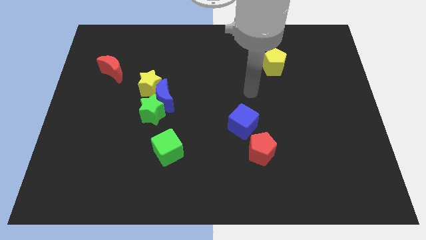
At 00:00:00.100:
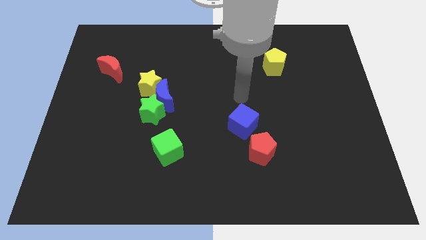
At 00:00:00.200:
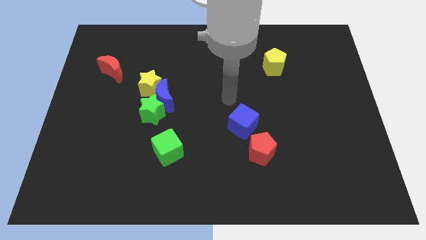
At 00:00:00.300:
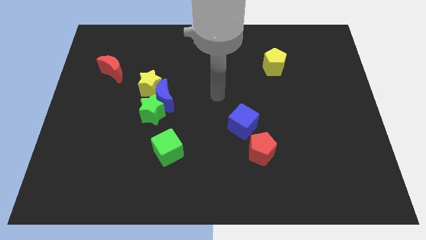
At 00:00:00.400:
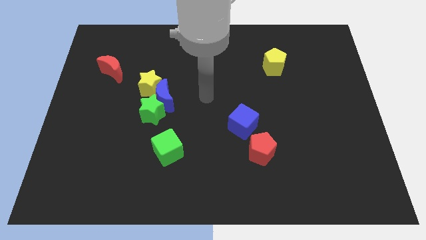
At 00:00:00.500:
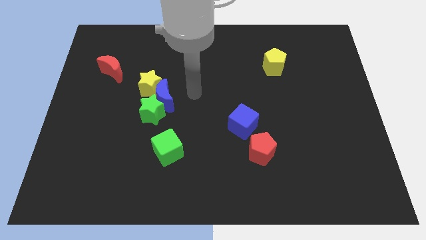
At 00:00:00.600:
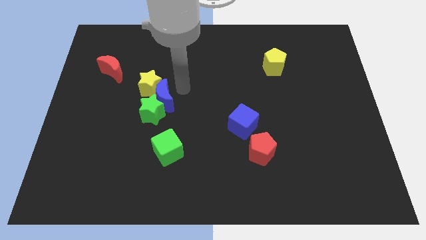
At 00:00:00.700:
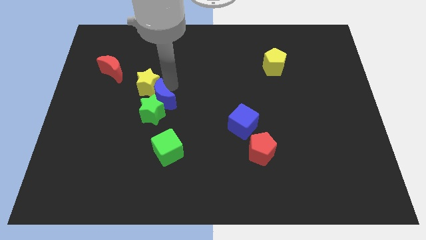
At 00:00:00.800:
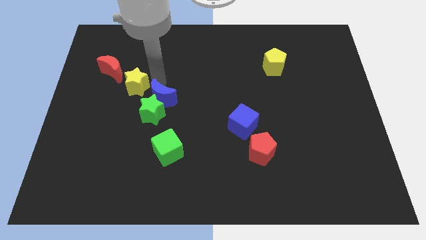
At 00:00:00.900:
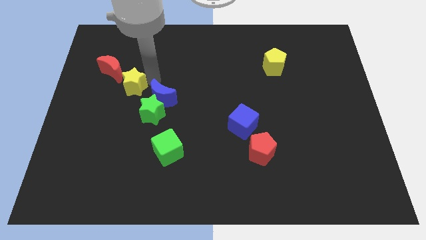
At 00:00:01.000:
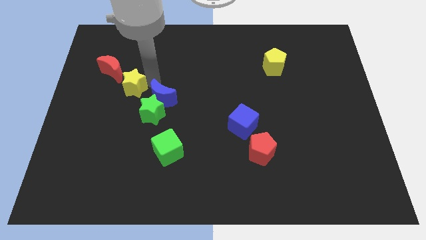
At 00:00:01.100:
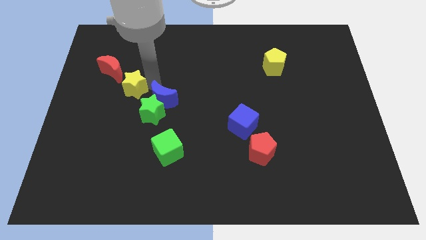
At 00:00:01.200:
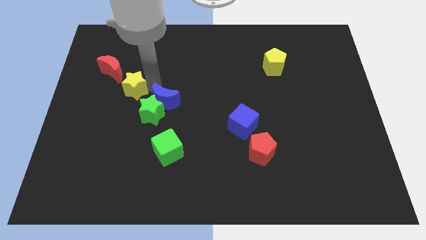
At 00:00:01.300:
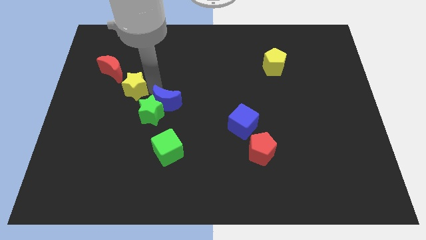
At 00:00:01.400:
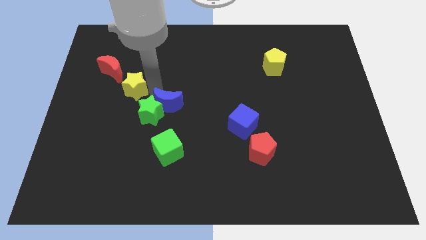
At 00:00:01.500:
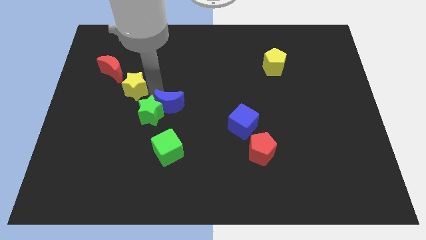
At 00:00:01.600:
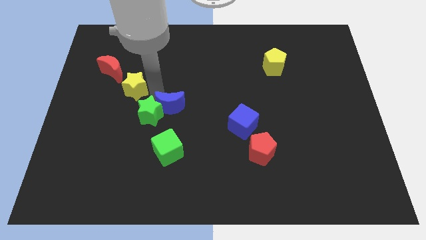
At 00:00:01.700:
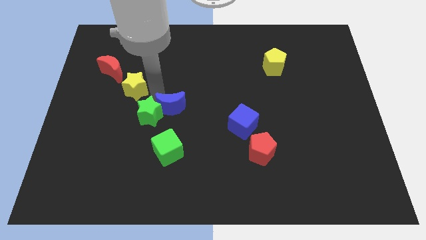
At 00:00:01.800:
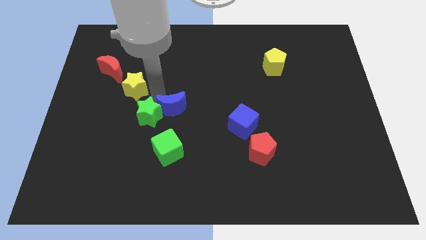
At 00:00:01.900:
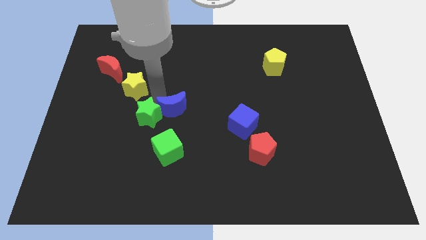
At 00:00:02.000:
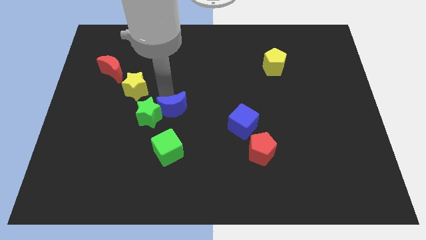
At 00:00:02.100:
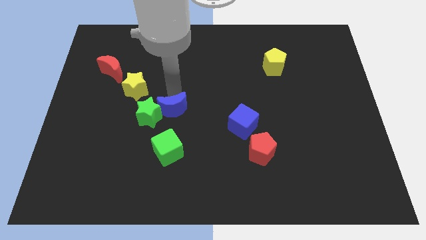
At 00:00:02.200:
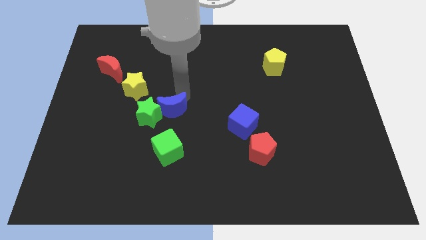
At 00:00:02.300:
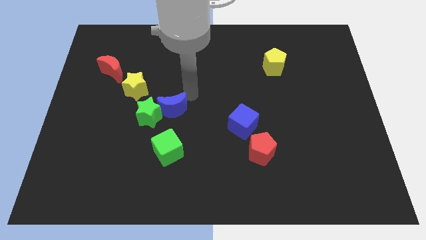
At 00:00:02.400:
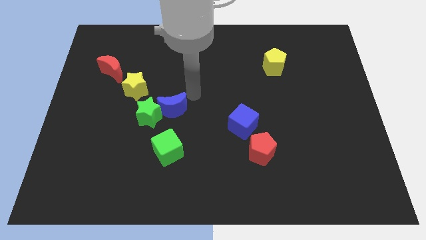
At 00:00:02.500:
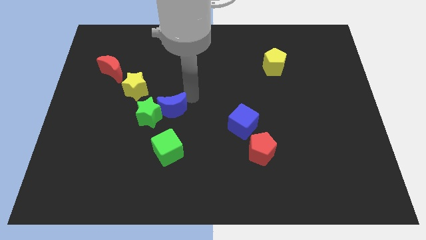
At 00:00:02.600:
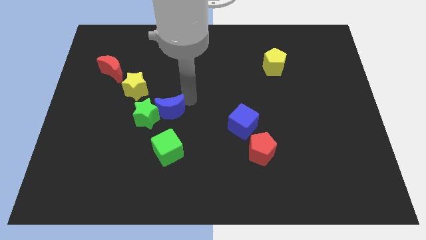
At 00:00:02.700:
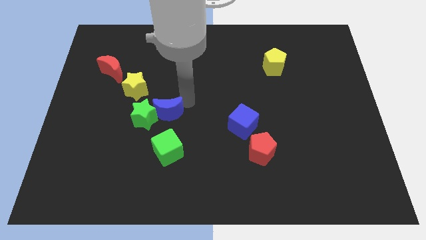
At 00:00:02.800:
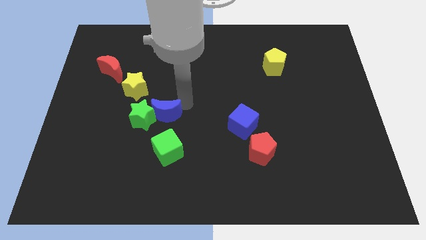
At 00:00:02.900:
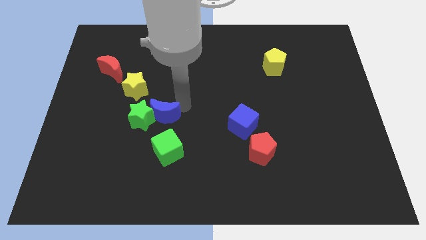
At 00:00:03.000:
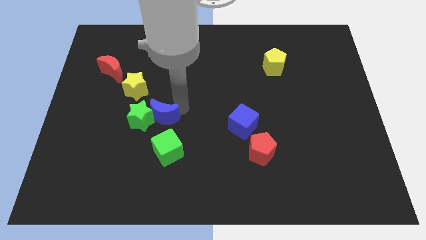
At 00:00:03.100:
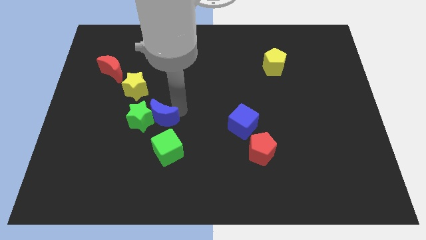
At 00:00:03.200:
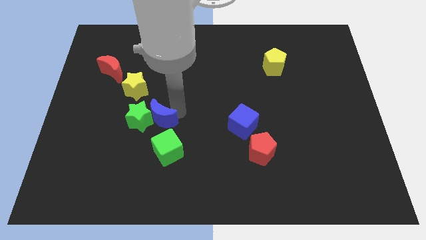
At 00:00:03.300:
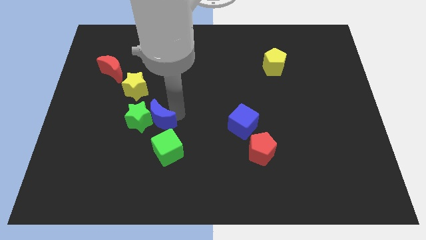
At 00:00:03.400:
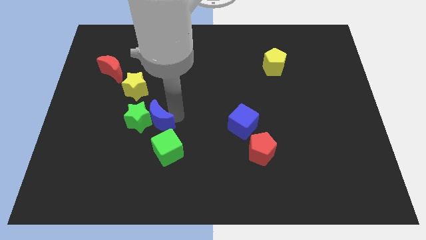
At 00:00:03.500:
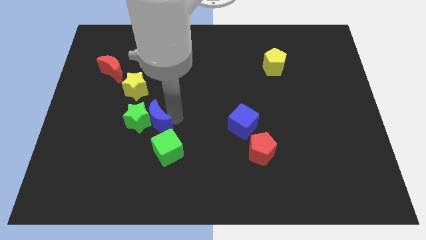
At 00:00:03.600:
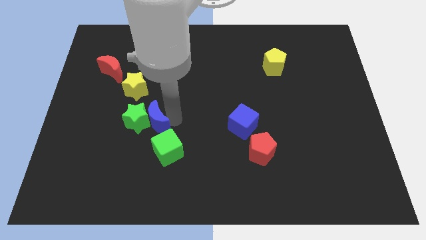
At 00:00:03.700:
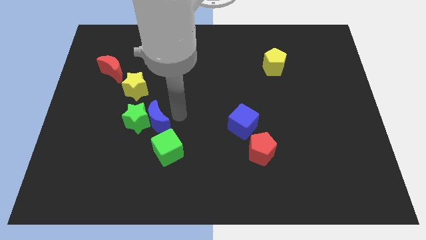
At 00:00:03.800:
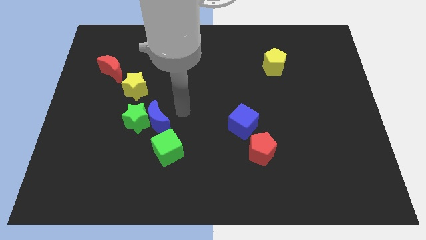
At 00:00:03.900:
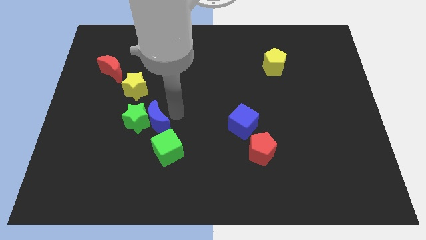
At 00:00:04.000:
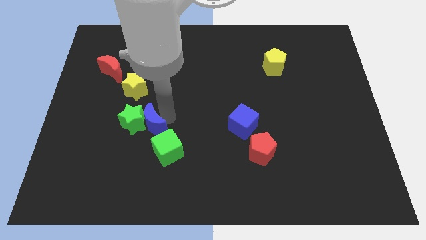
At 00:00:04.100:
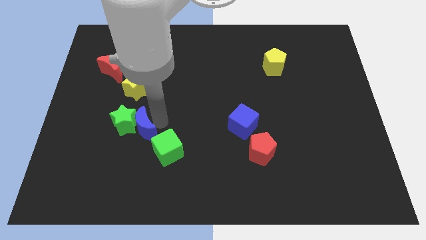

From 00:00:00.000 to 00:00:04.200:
push the blue moon downwards and left a little bit

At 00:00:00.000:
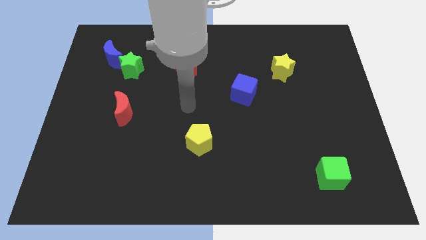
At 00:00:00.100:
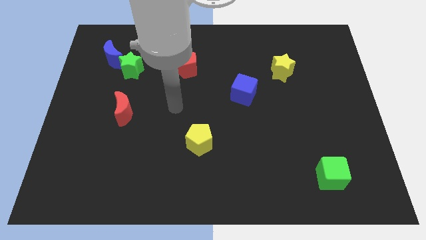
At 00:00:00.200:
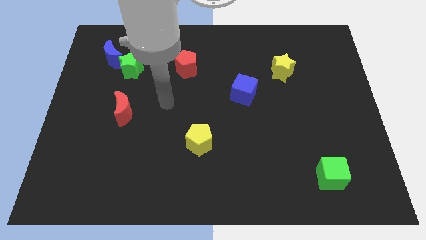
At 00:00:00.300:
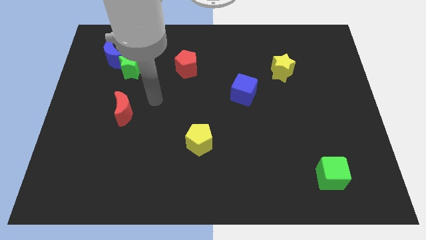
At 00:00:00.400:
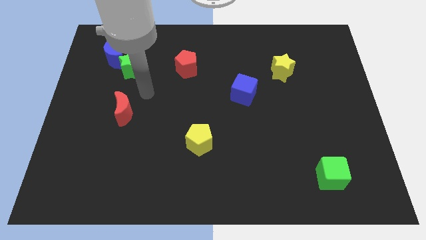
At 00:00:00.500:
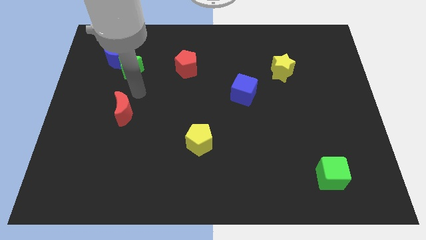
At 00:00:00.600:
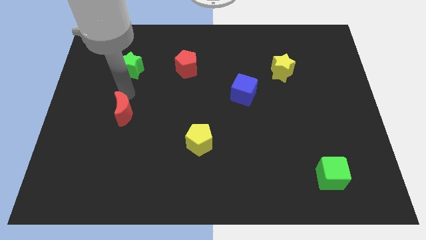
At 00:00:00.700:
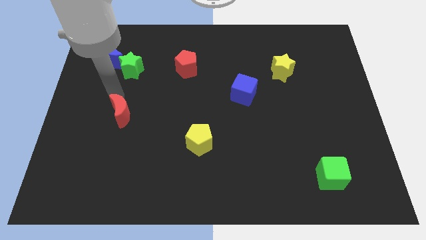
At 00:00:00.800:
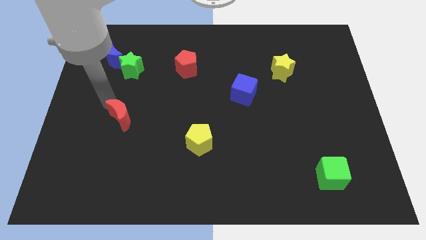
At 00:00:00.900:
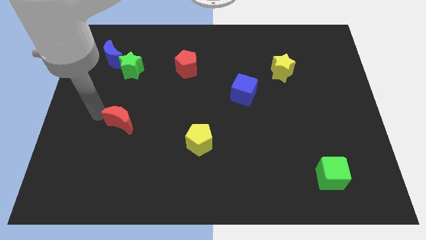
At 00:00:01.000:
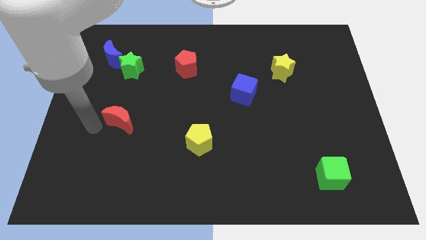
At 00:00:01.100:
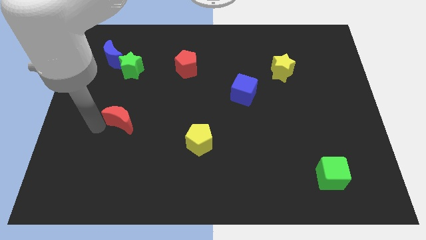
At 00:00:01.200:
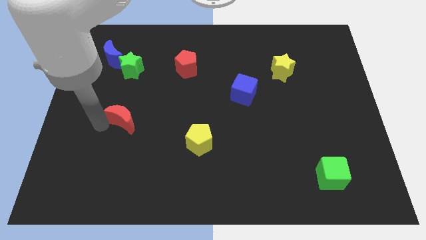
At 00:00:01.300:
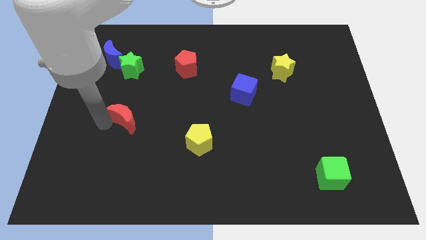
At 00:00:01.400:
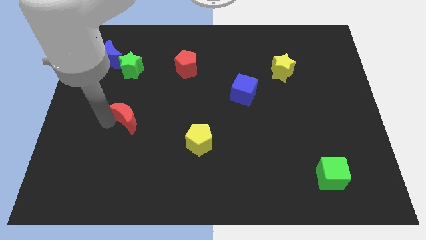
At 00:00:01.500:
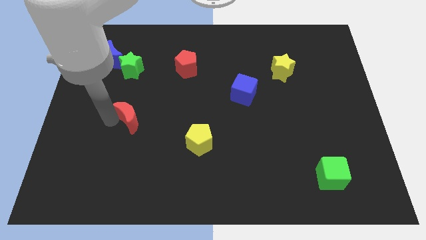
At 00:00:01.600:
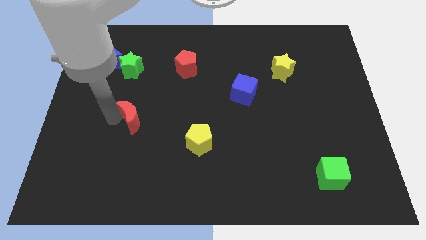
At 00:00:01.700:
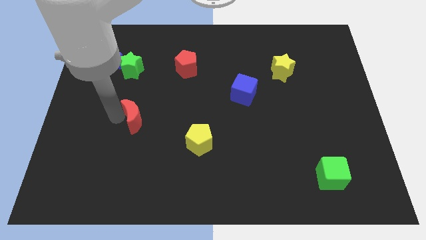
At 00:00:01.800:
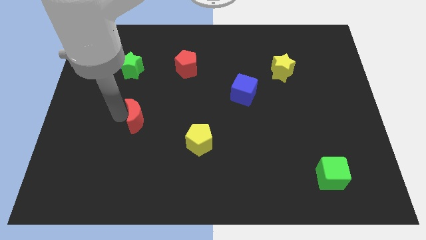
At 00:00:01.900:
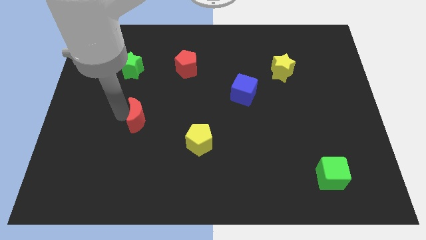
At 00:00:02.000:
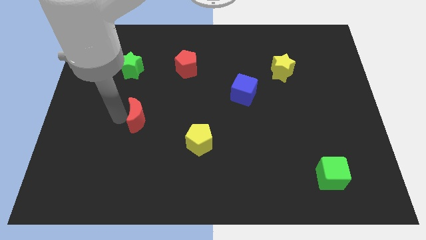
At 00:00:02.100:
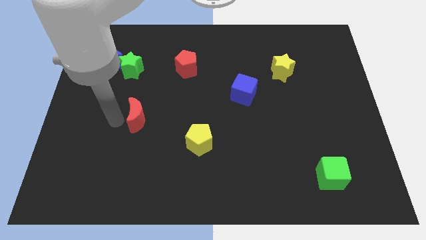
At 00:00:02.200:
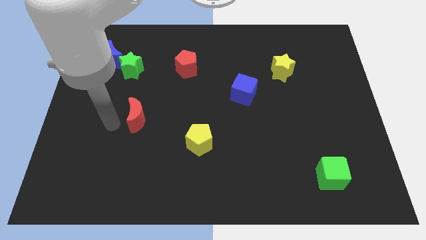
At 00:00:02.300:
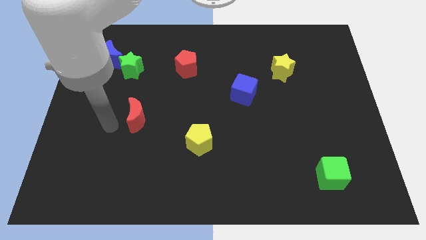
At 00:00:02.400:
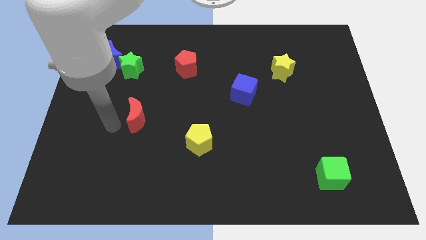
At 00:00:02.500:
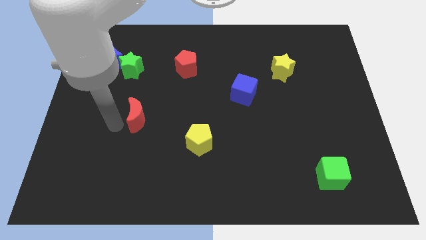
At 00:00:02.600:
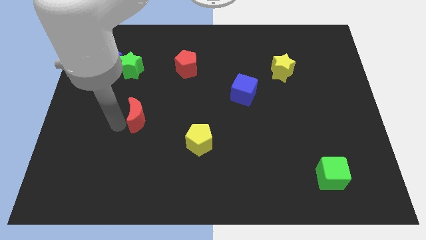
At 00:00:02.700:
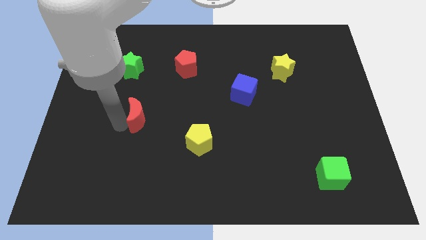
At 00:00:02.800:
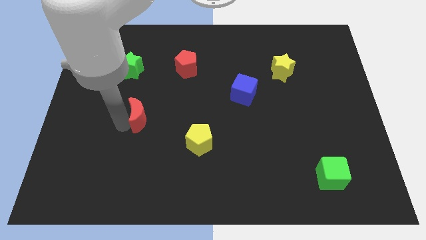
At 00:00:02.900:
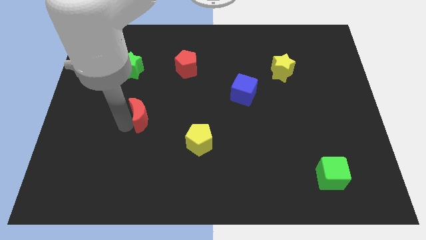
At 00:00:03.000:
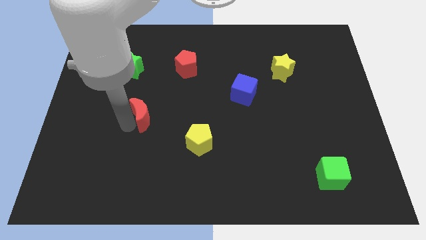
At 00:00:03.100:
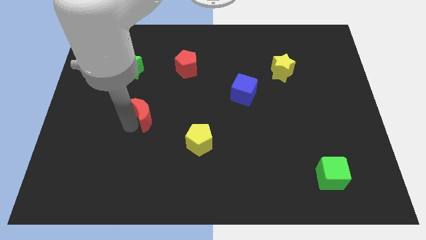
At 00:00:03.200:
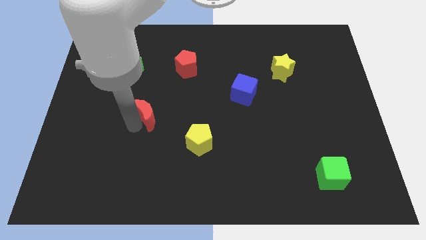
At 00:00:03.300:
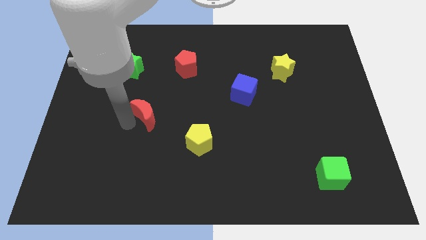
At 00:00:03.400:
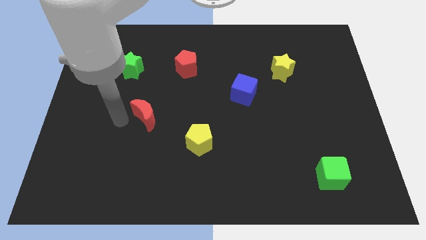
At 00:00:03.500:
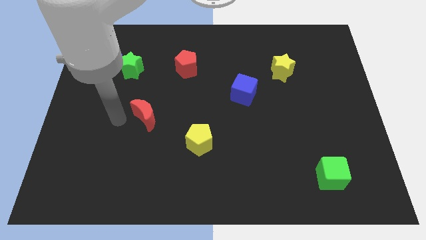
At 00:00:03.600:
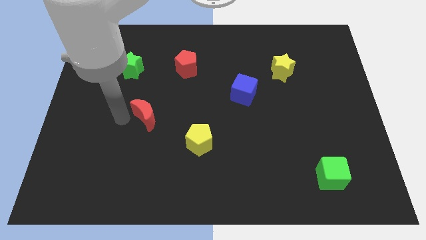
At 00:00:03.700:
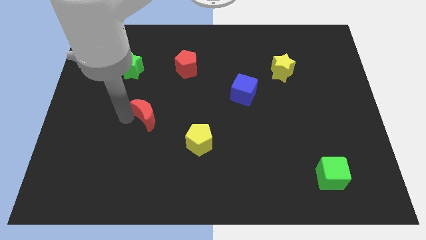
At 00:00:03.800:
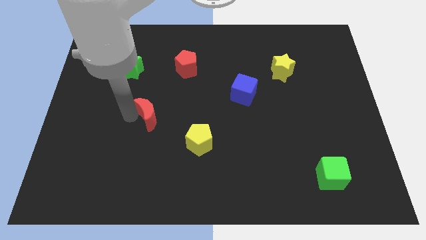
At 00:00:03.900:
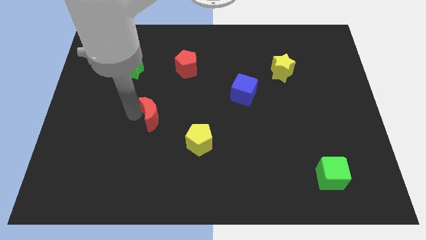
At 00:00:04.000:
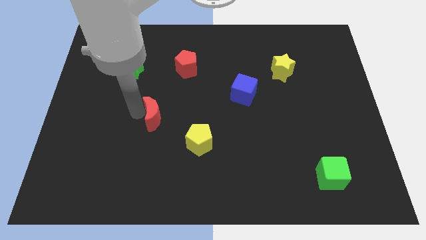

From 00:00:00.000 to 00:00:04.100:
push the red moon right somewhat
